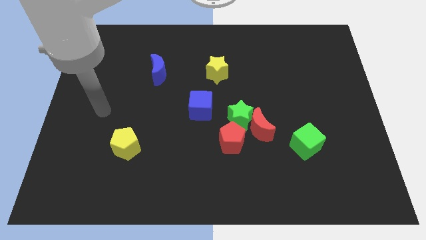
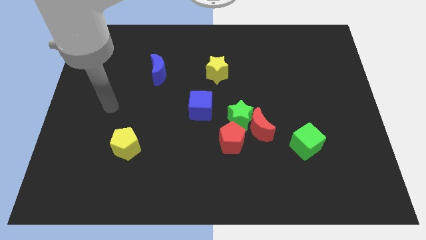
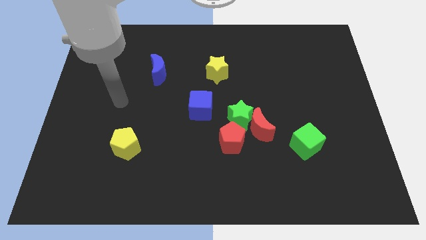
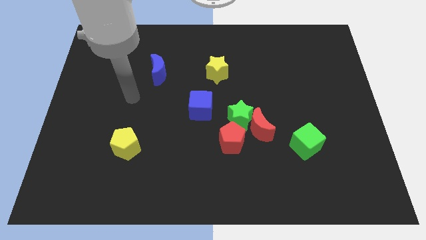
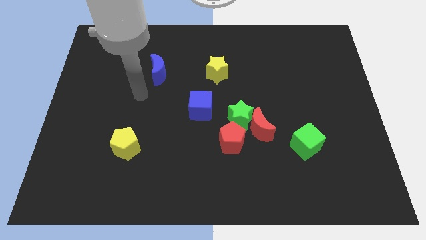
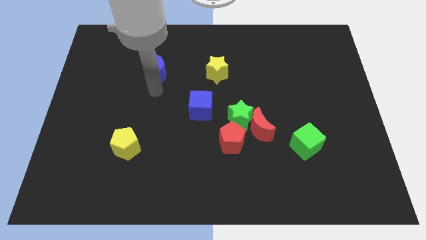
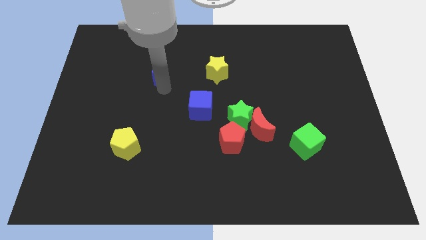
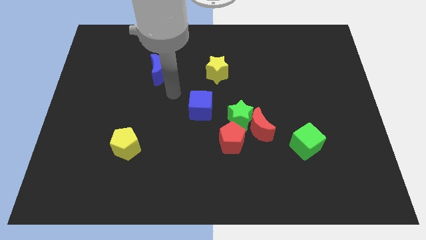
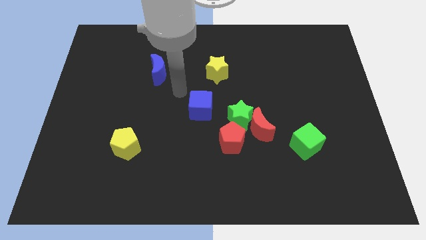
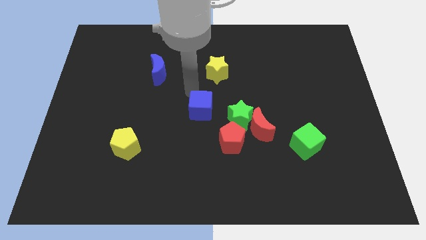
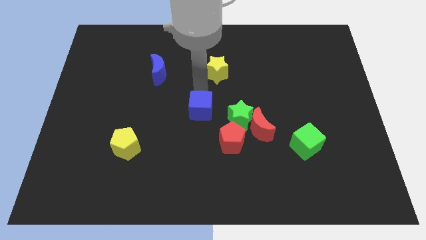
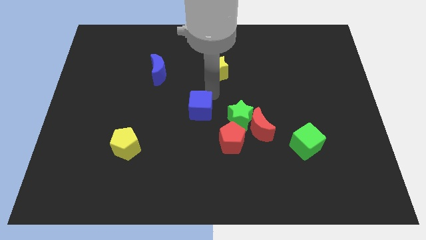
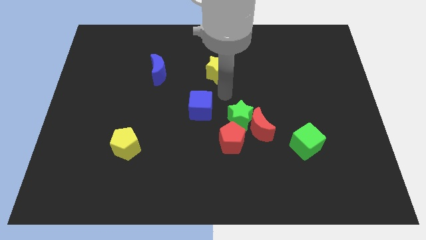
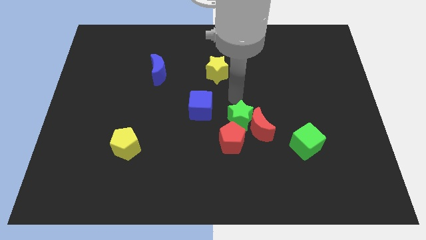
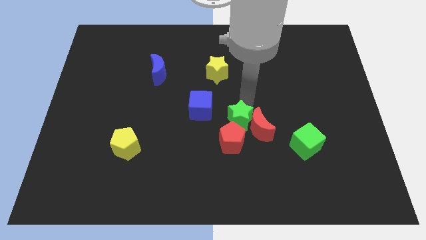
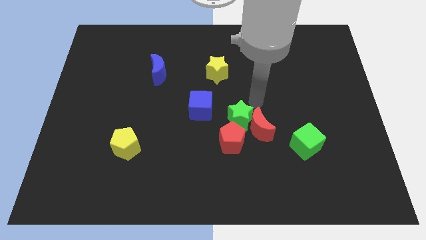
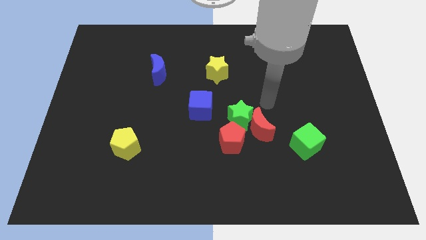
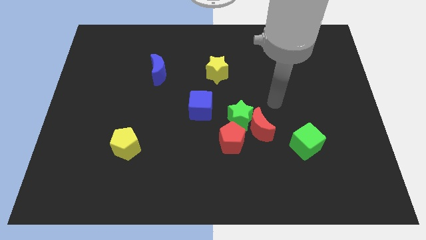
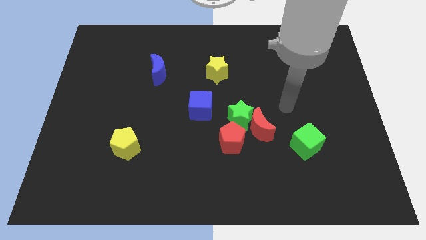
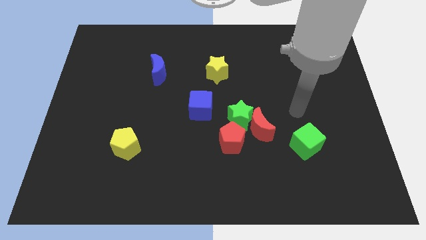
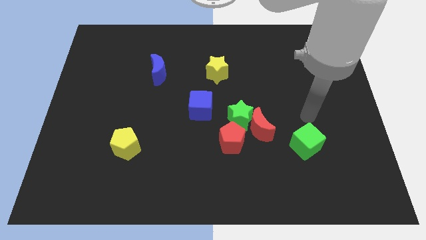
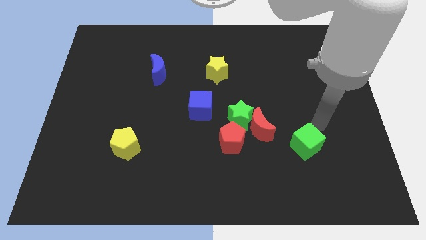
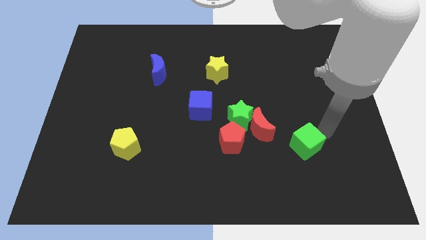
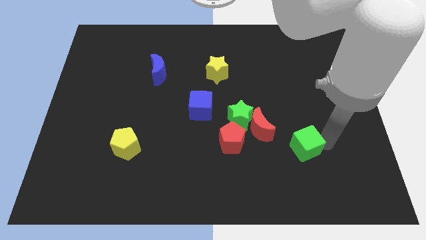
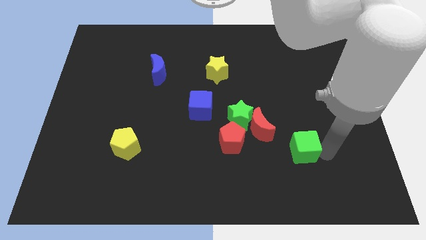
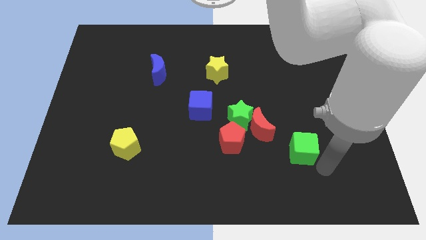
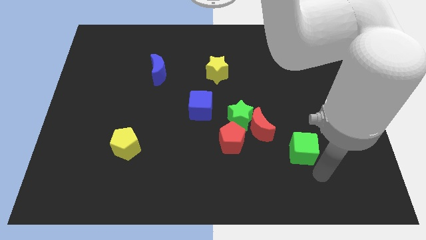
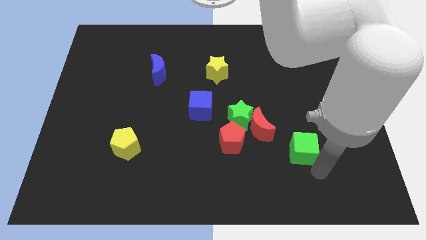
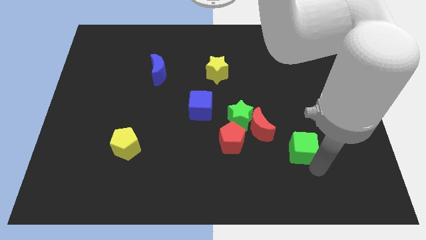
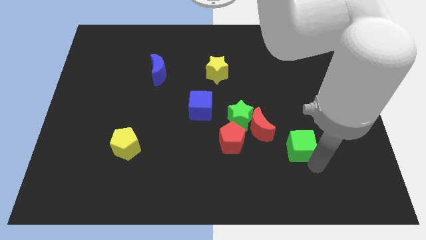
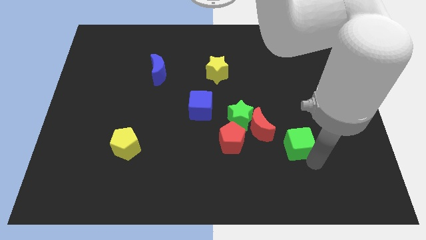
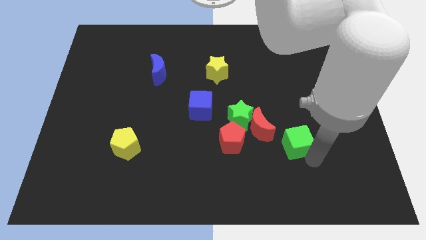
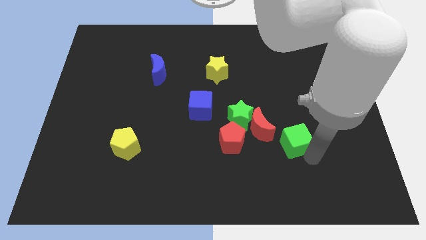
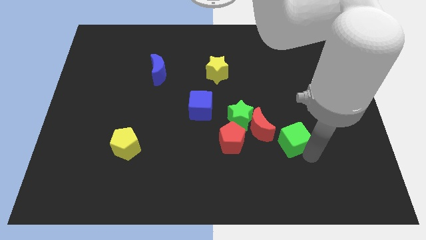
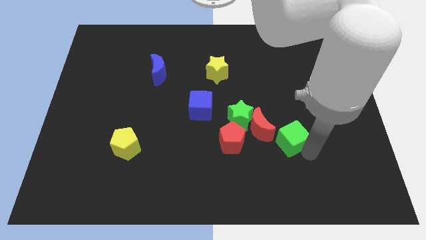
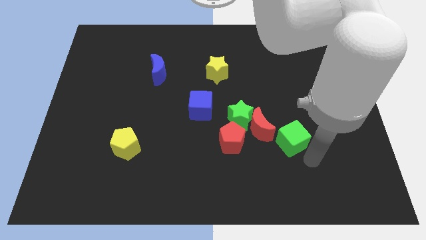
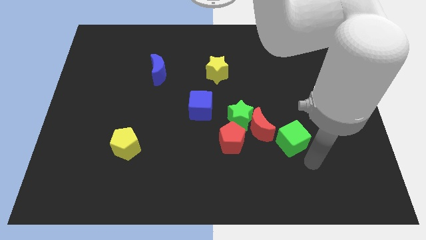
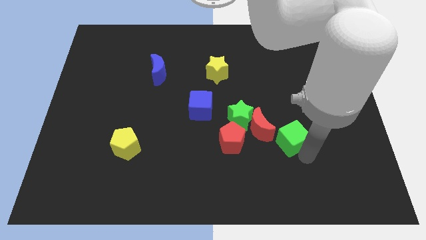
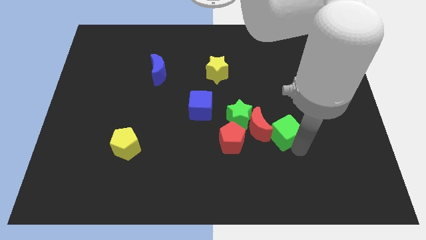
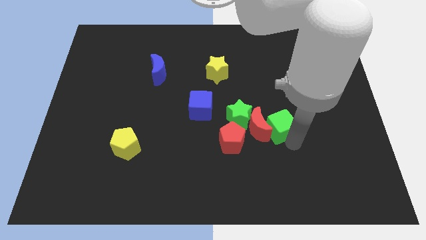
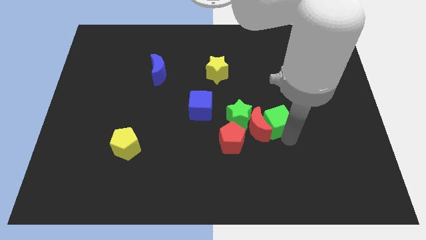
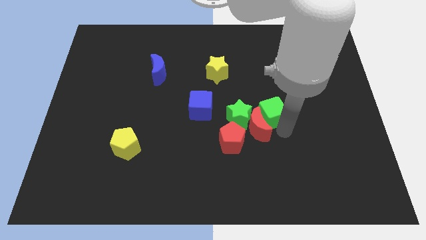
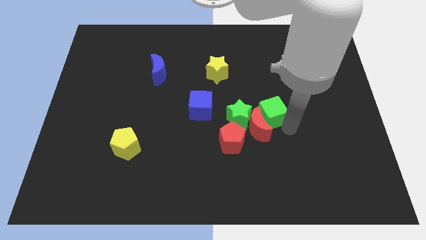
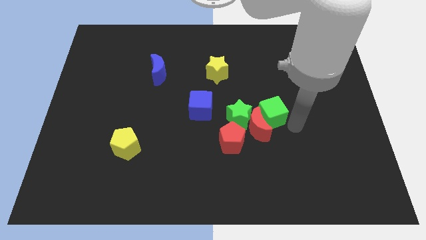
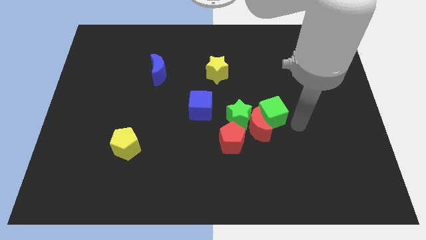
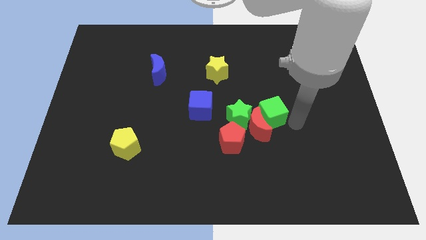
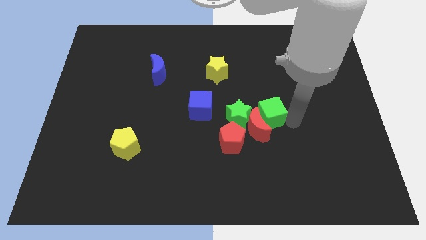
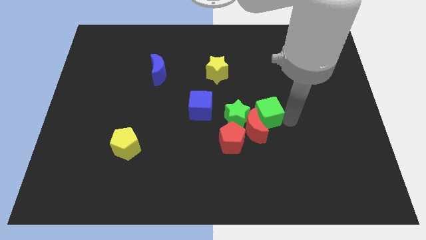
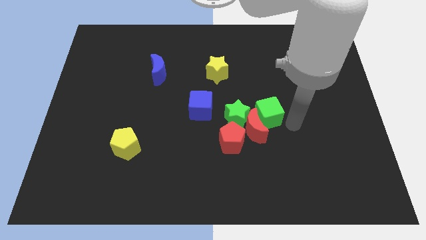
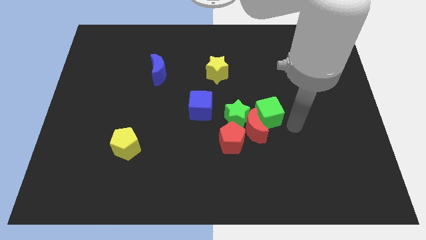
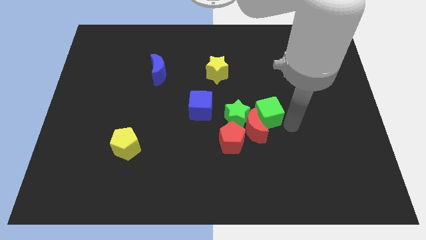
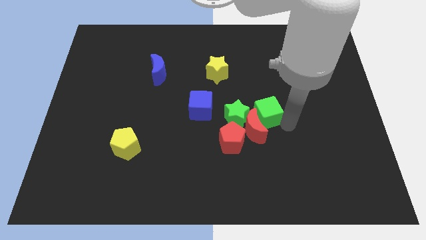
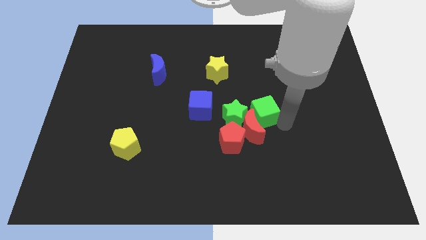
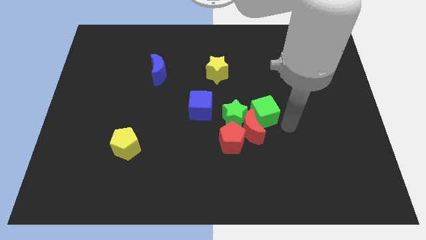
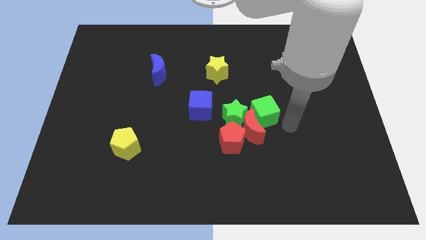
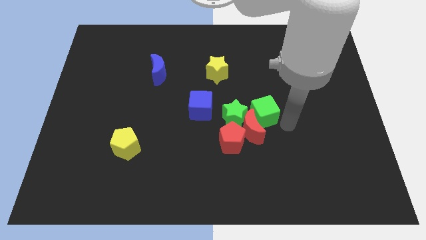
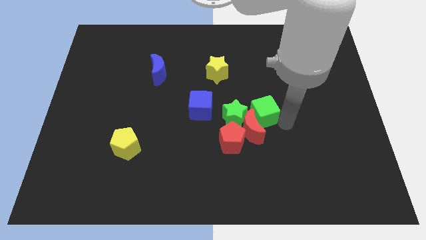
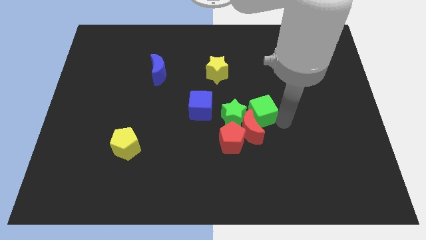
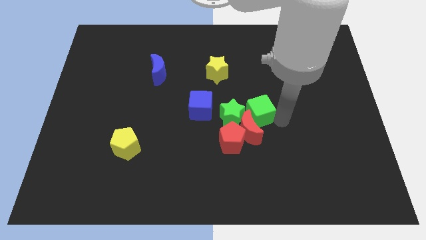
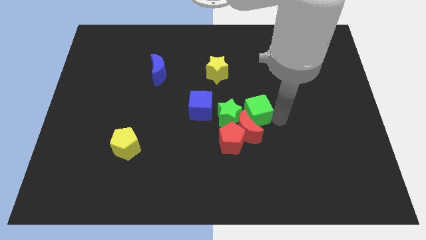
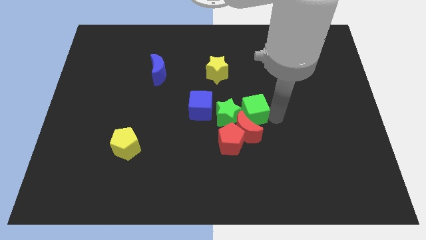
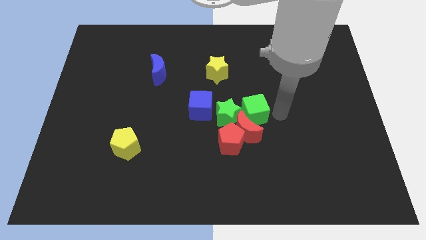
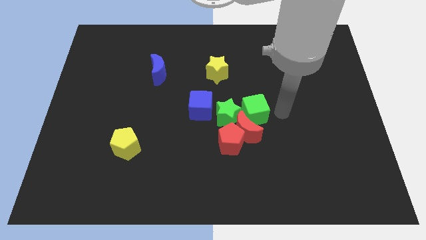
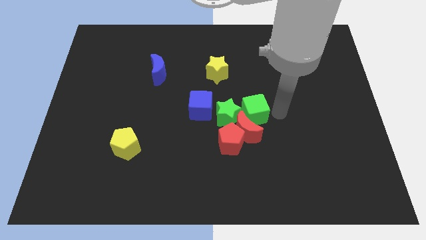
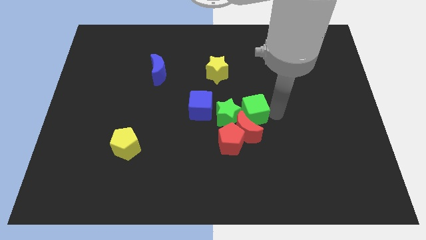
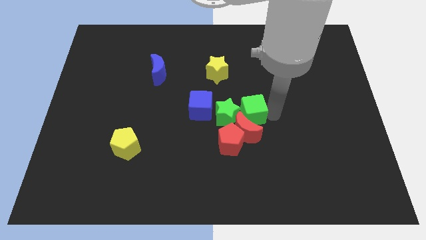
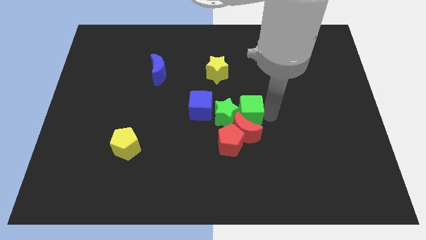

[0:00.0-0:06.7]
slide the green cube to the top left of the red moon
